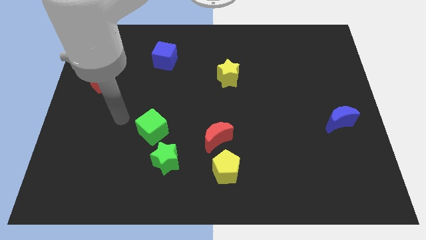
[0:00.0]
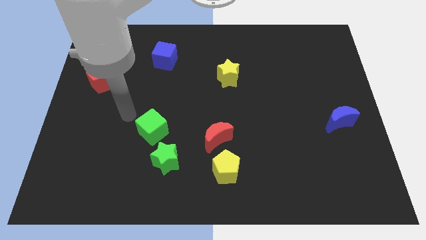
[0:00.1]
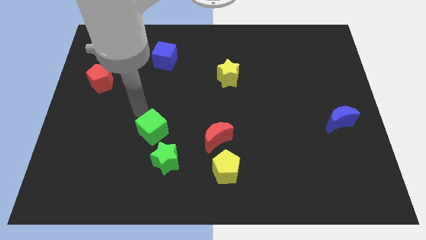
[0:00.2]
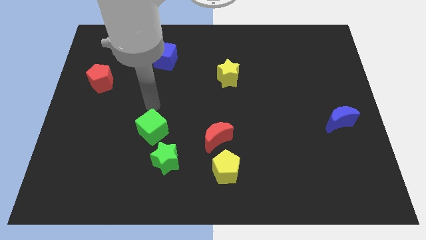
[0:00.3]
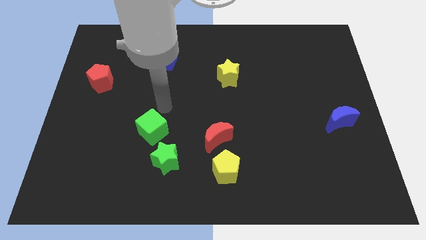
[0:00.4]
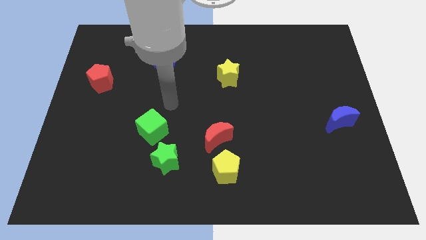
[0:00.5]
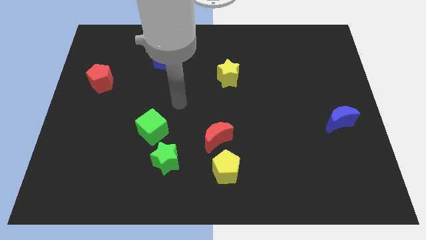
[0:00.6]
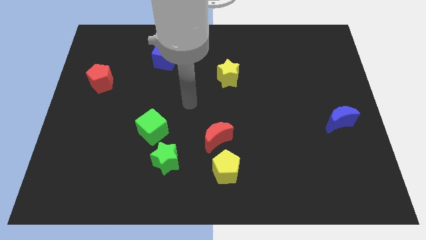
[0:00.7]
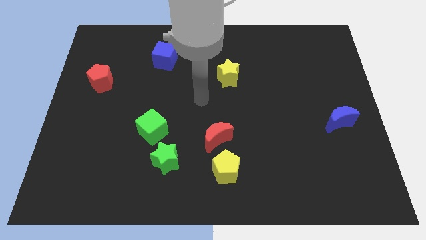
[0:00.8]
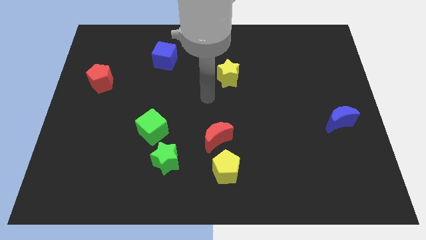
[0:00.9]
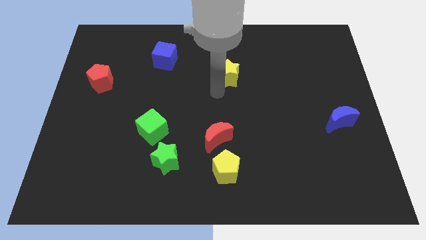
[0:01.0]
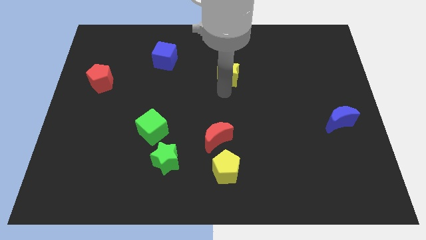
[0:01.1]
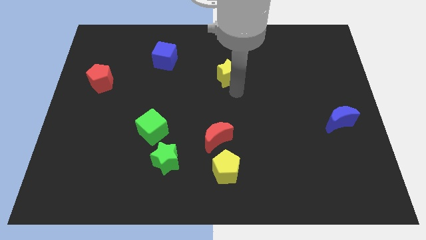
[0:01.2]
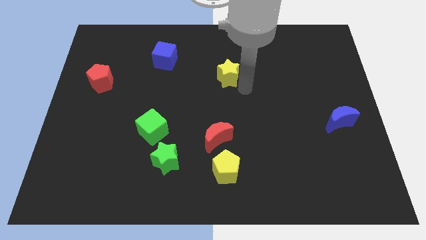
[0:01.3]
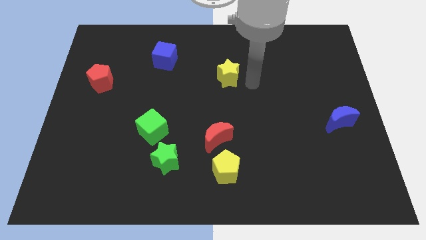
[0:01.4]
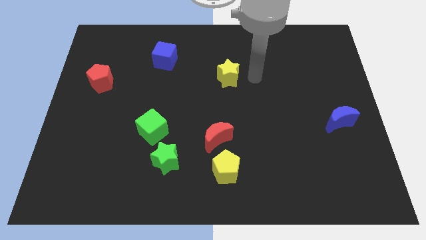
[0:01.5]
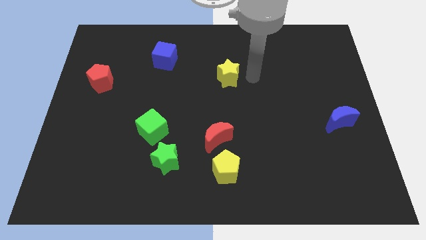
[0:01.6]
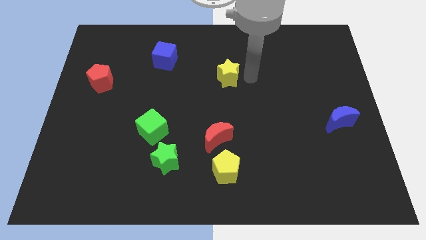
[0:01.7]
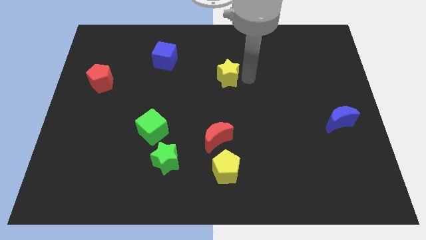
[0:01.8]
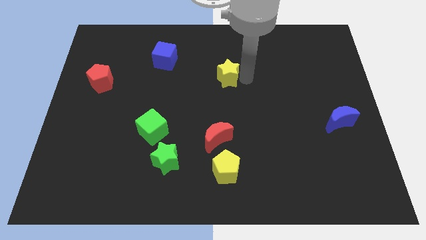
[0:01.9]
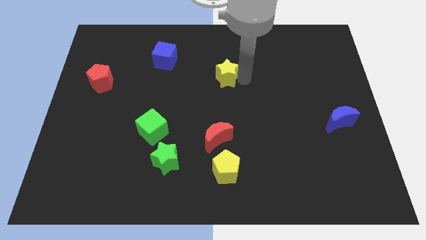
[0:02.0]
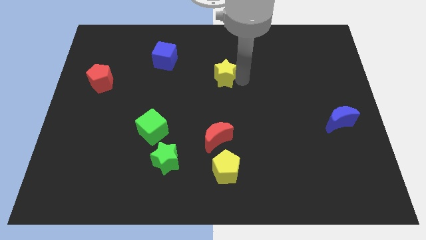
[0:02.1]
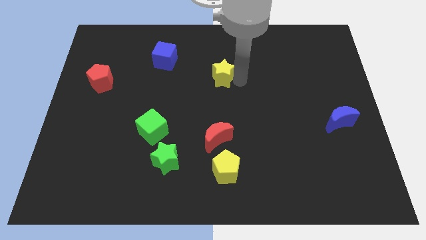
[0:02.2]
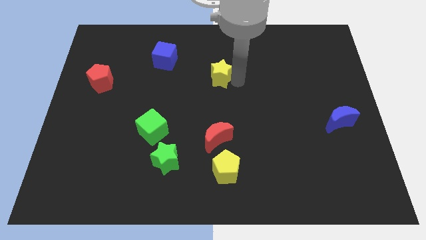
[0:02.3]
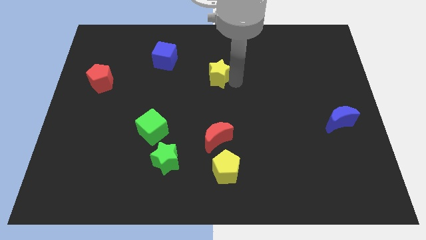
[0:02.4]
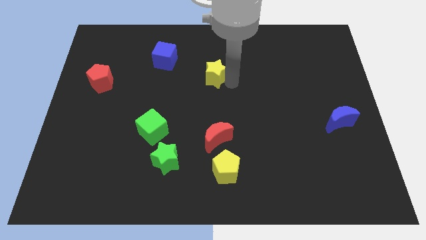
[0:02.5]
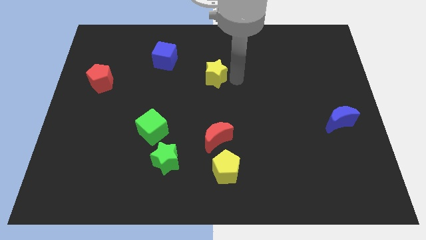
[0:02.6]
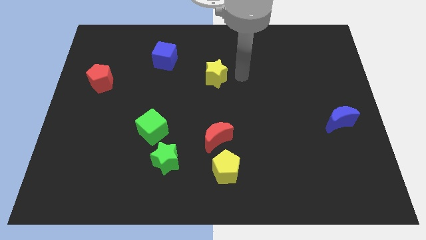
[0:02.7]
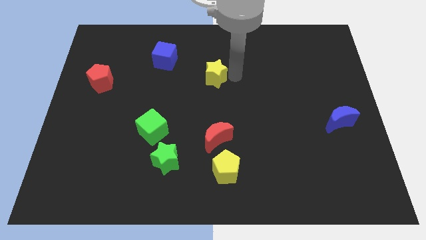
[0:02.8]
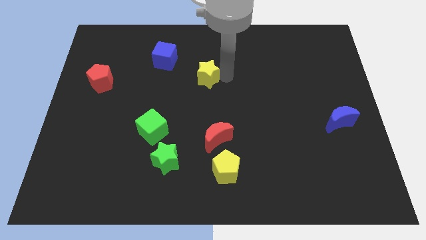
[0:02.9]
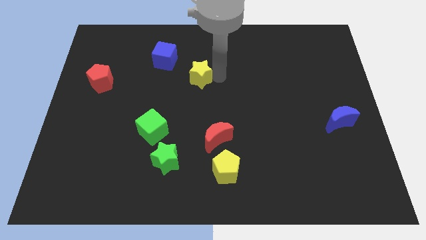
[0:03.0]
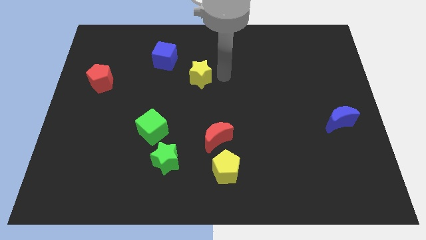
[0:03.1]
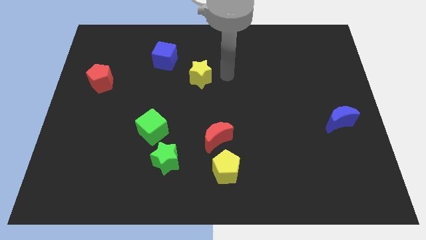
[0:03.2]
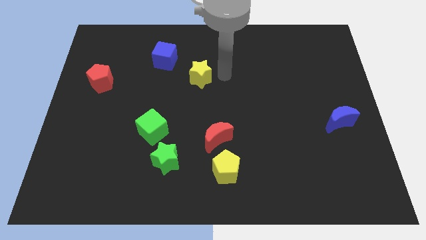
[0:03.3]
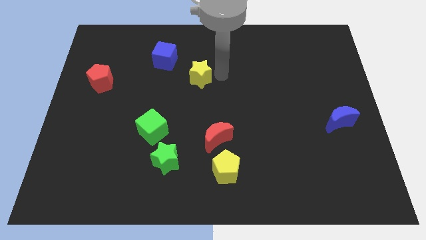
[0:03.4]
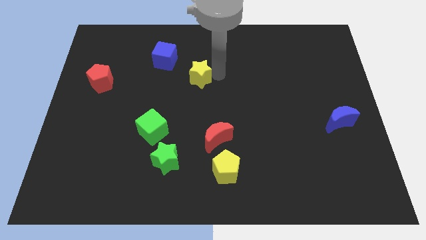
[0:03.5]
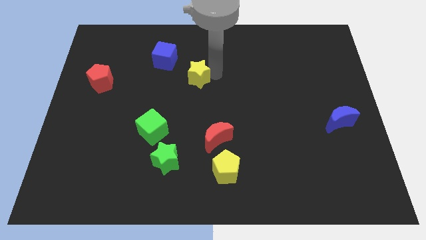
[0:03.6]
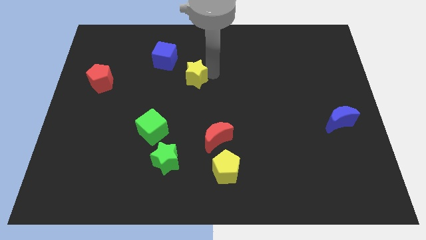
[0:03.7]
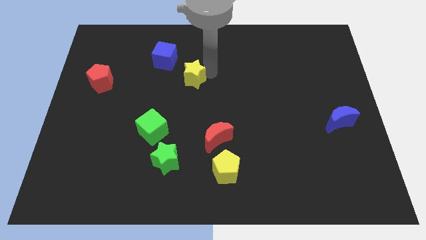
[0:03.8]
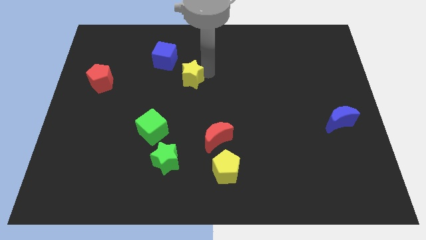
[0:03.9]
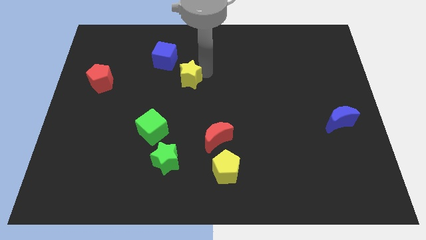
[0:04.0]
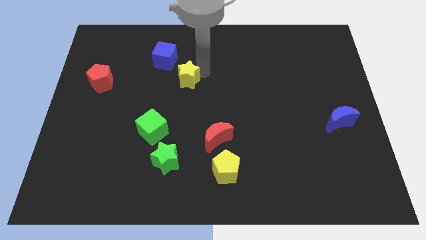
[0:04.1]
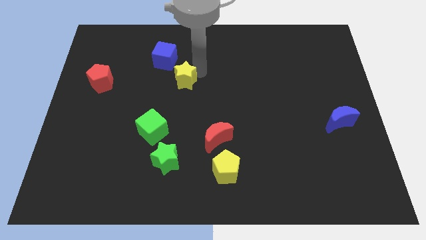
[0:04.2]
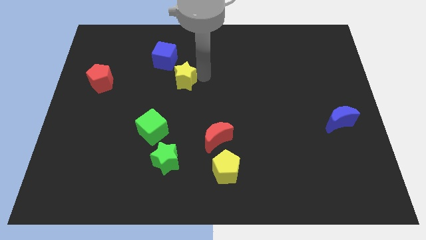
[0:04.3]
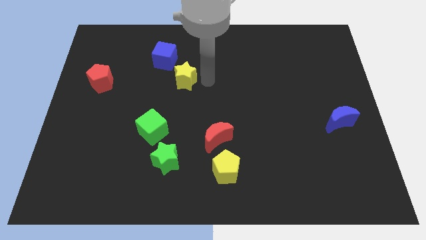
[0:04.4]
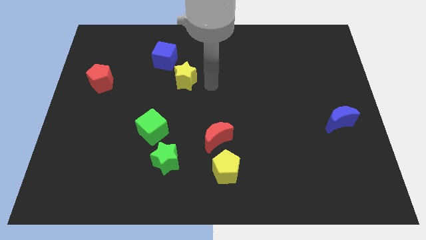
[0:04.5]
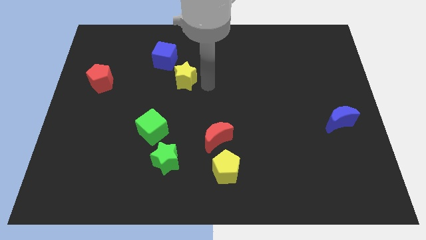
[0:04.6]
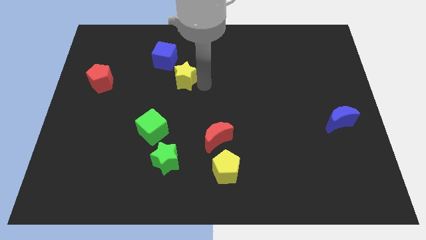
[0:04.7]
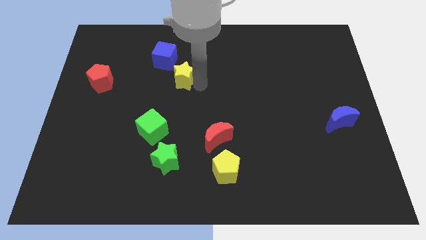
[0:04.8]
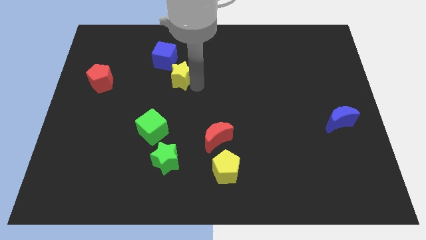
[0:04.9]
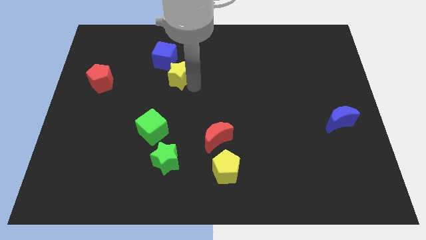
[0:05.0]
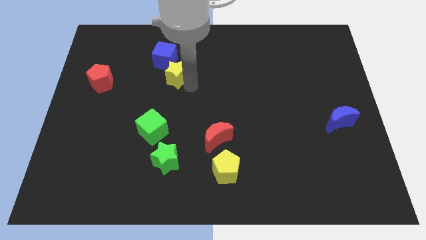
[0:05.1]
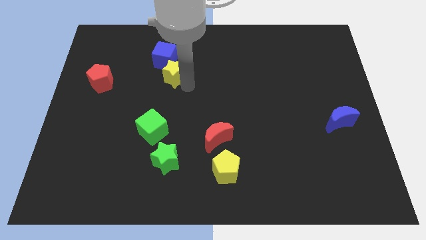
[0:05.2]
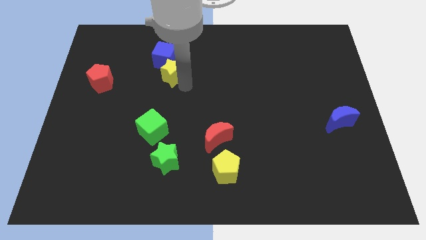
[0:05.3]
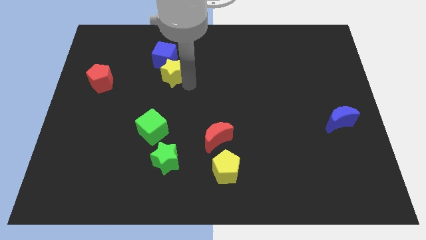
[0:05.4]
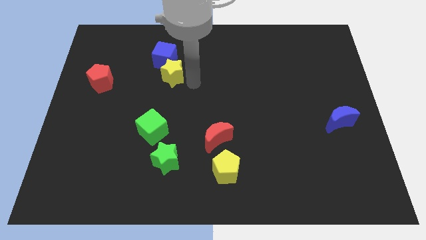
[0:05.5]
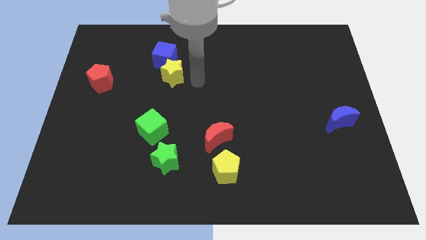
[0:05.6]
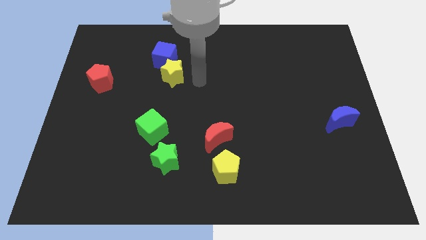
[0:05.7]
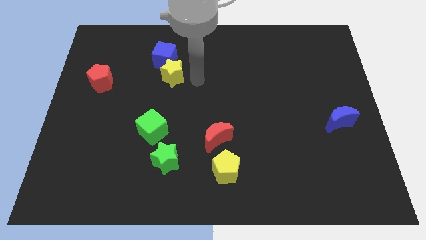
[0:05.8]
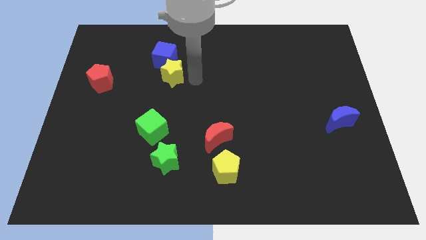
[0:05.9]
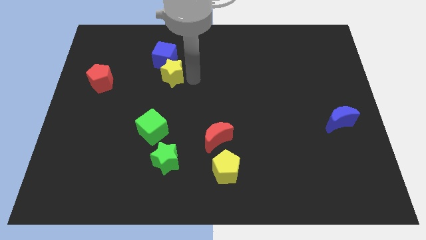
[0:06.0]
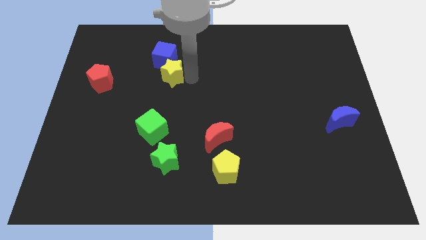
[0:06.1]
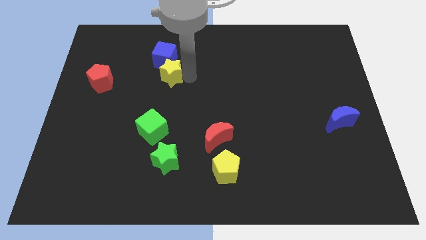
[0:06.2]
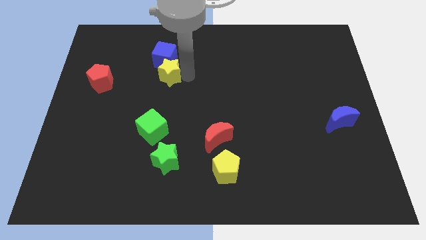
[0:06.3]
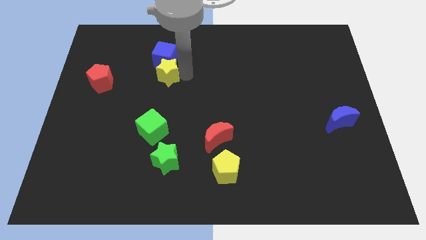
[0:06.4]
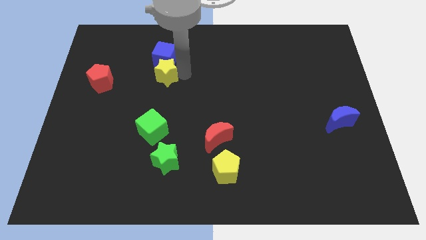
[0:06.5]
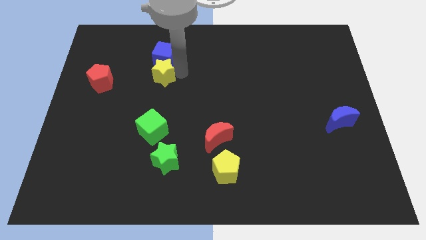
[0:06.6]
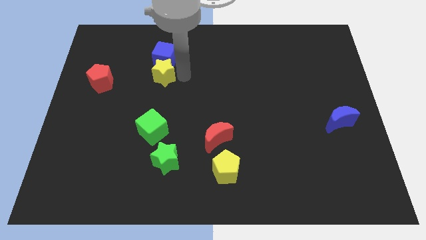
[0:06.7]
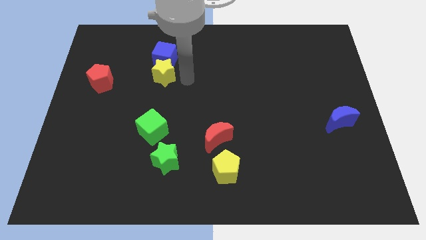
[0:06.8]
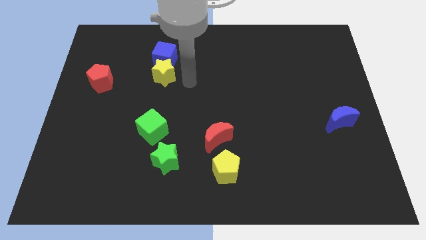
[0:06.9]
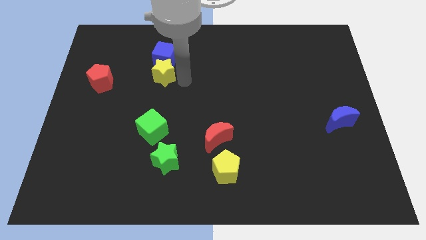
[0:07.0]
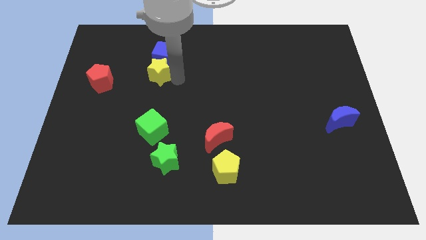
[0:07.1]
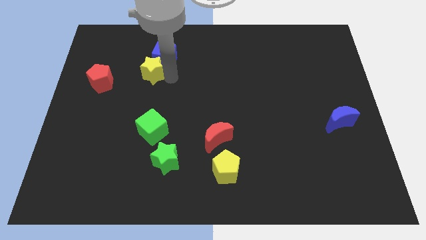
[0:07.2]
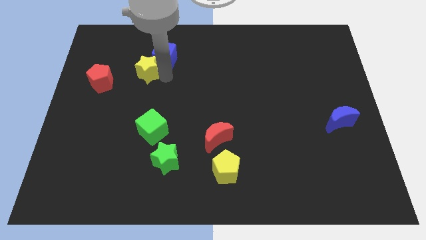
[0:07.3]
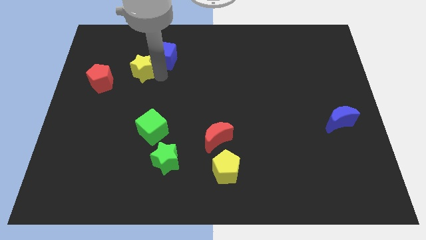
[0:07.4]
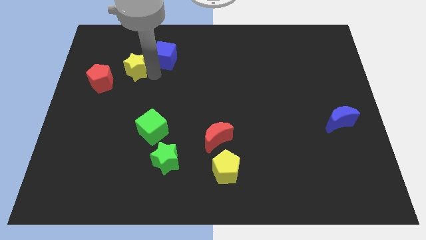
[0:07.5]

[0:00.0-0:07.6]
slide the yellow star to the top right of the red pentagon
